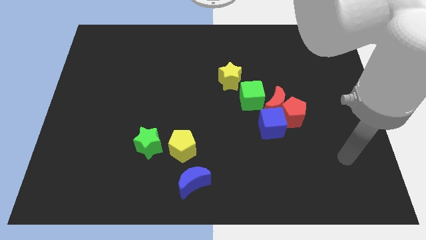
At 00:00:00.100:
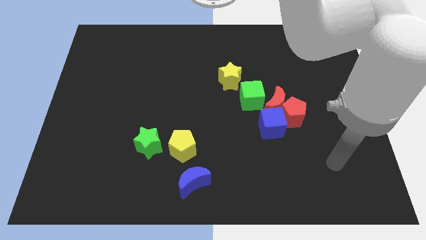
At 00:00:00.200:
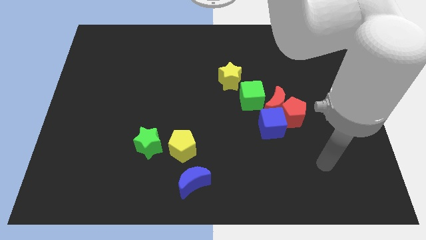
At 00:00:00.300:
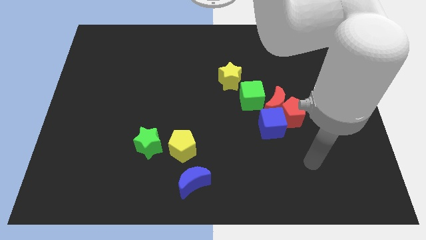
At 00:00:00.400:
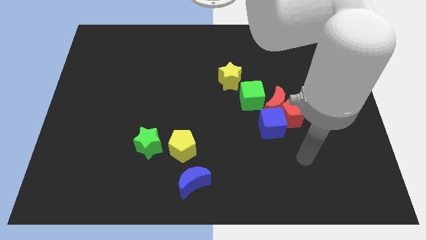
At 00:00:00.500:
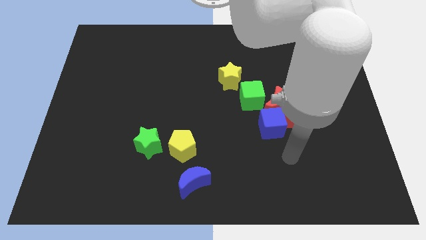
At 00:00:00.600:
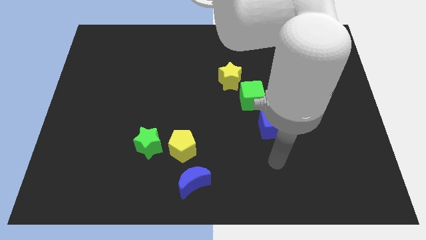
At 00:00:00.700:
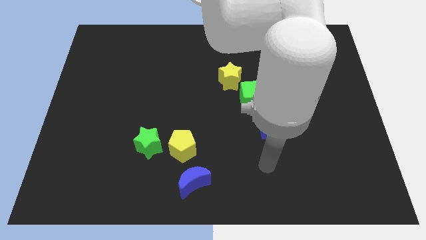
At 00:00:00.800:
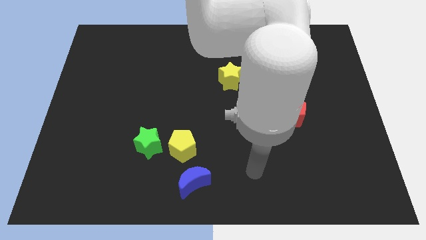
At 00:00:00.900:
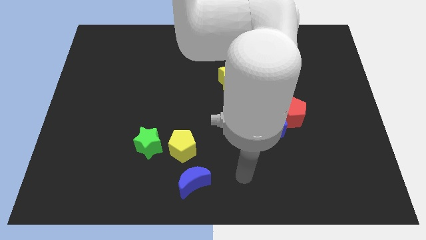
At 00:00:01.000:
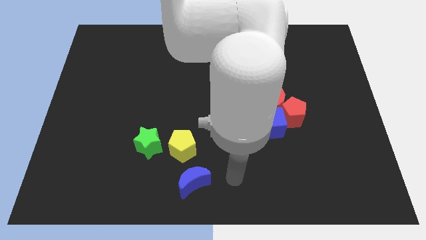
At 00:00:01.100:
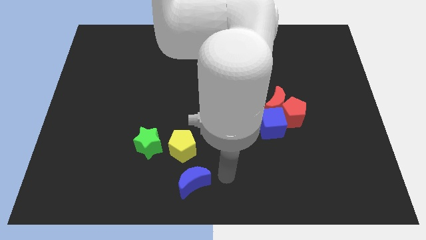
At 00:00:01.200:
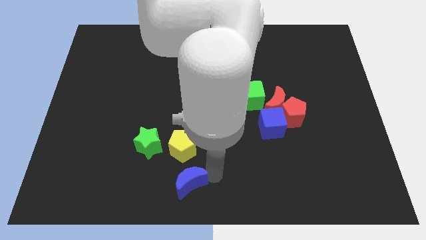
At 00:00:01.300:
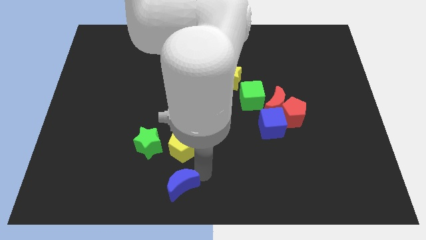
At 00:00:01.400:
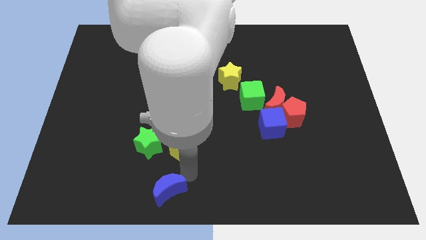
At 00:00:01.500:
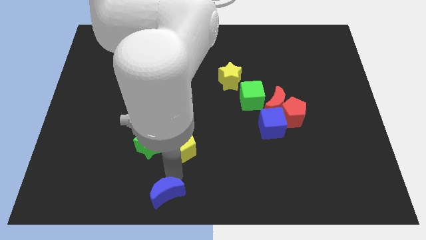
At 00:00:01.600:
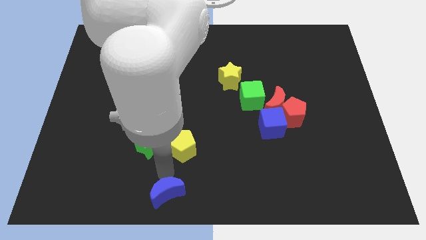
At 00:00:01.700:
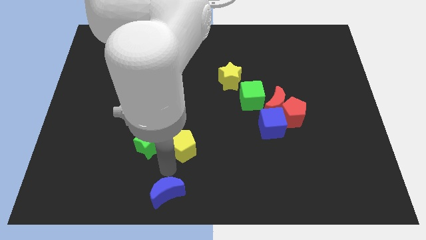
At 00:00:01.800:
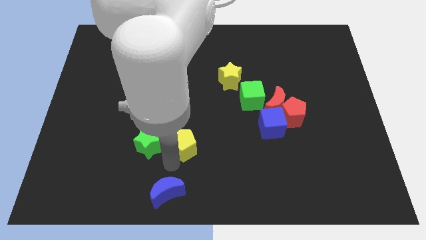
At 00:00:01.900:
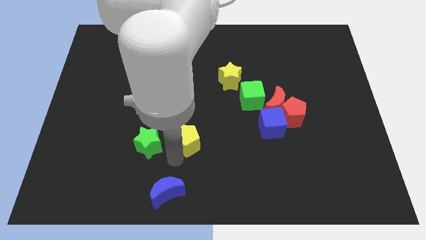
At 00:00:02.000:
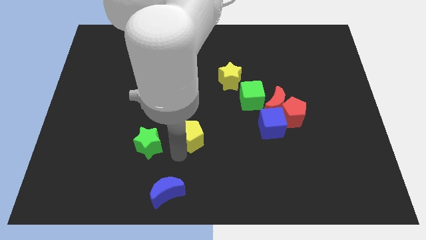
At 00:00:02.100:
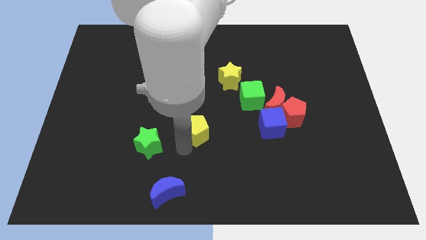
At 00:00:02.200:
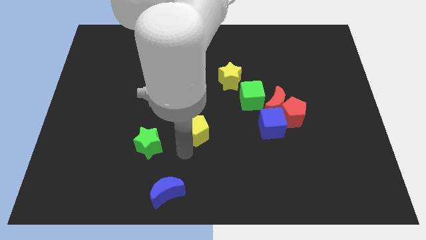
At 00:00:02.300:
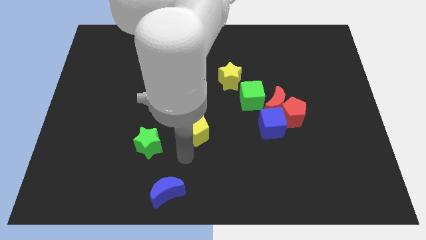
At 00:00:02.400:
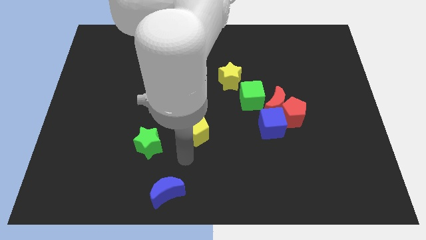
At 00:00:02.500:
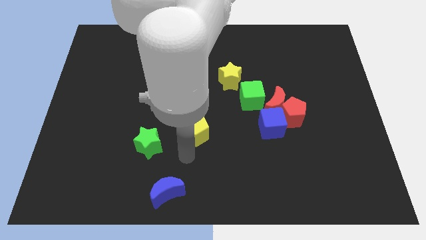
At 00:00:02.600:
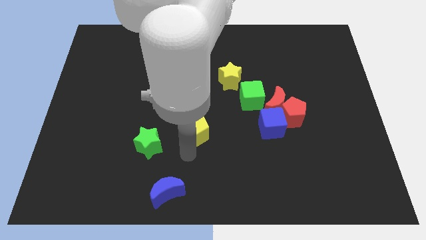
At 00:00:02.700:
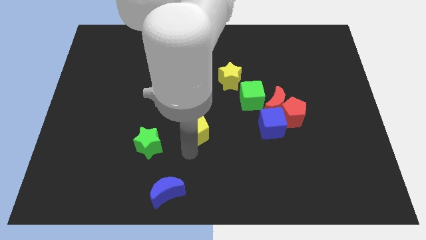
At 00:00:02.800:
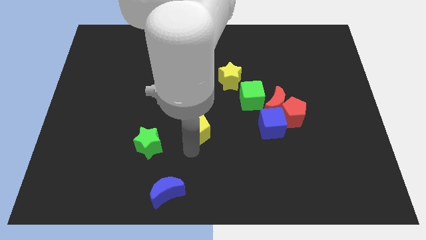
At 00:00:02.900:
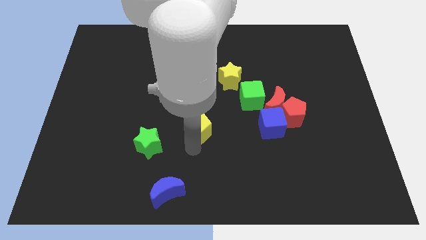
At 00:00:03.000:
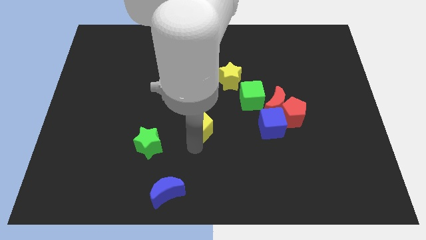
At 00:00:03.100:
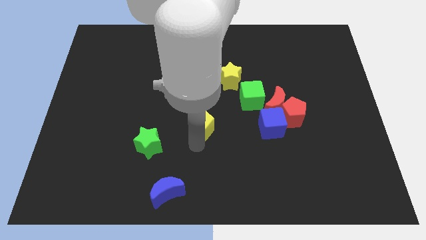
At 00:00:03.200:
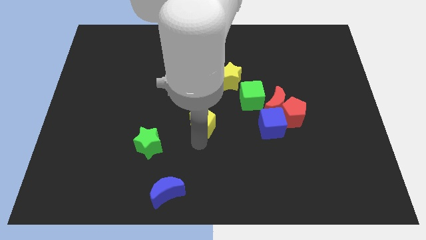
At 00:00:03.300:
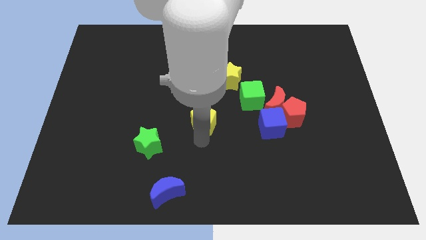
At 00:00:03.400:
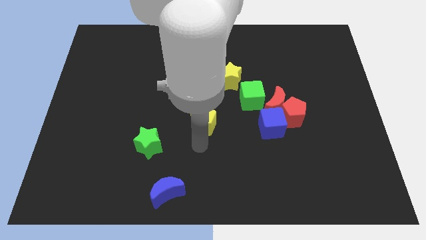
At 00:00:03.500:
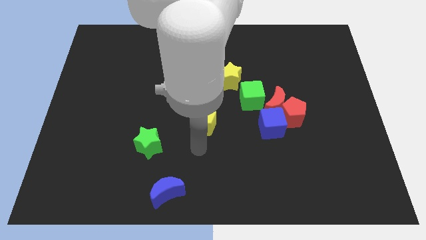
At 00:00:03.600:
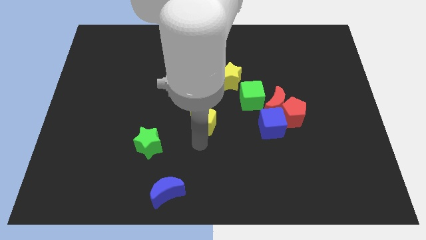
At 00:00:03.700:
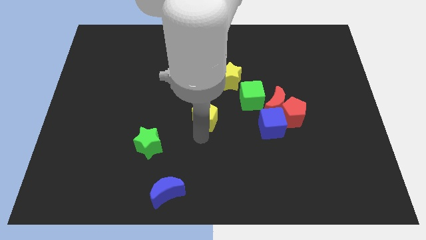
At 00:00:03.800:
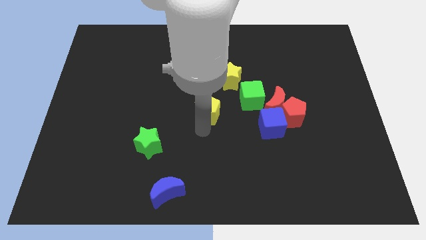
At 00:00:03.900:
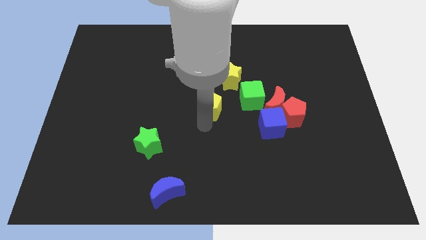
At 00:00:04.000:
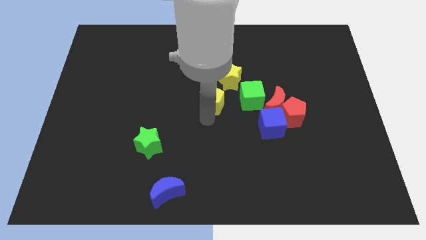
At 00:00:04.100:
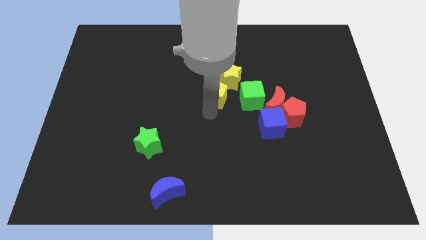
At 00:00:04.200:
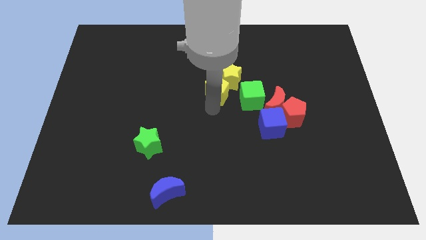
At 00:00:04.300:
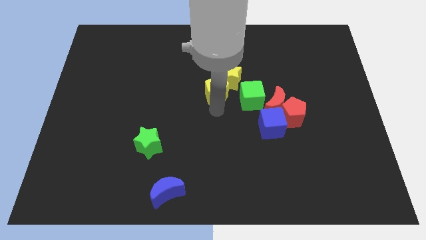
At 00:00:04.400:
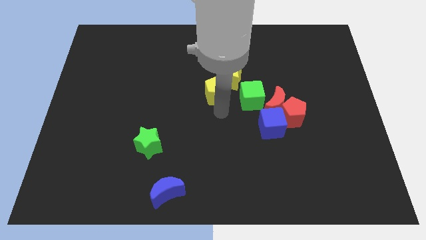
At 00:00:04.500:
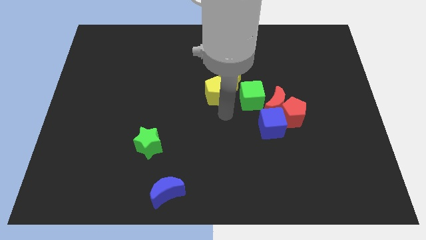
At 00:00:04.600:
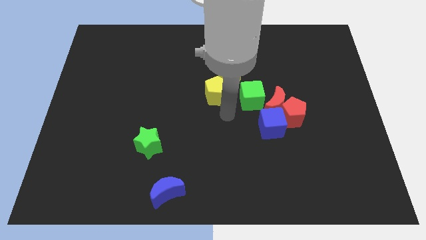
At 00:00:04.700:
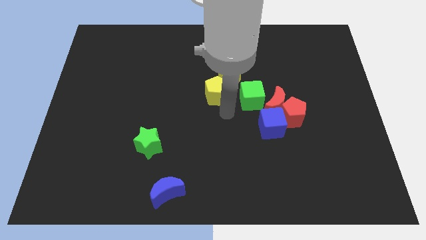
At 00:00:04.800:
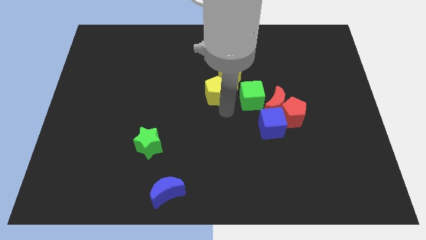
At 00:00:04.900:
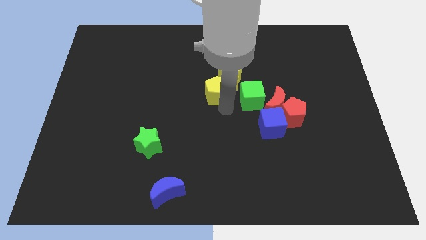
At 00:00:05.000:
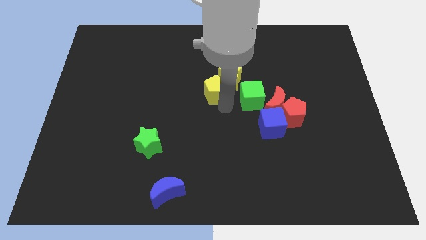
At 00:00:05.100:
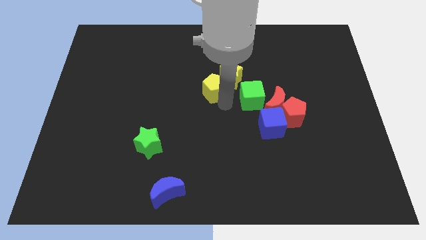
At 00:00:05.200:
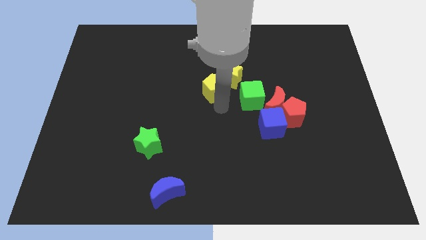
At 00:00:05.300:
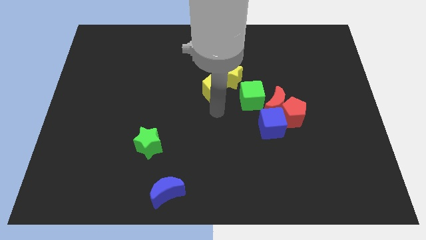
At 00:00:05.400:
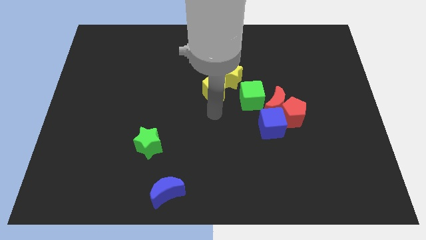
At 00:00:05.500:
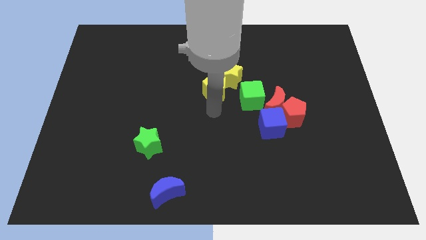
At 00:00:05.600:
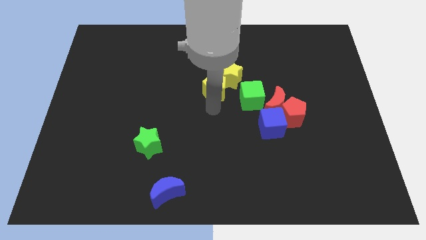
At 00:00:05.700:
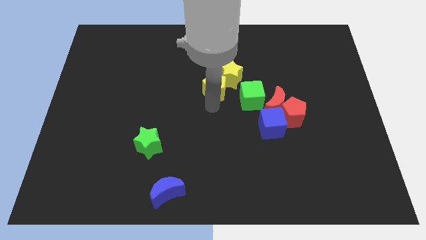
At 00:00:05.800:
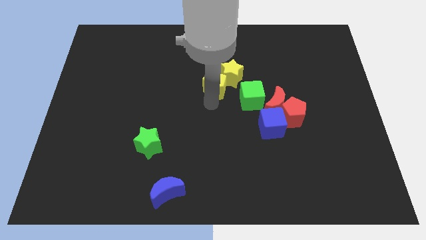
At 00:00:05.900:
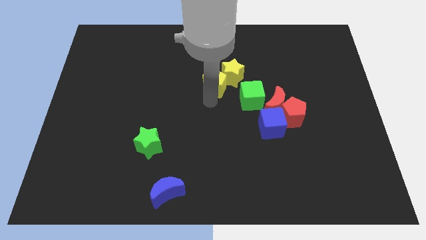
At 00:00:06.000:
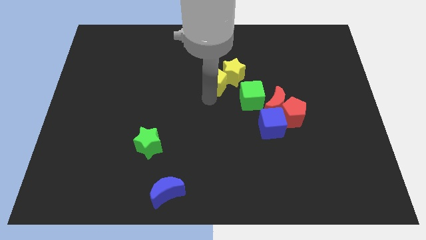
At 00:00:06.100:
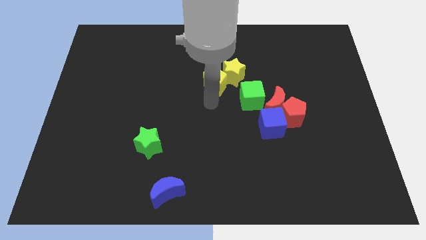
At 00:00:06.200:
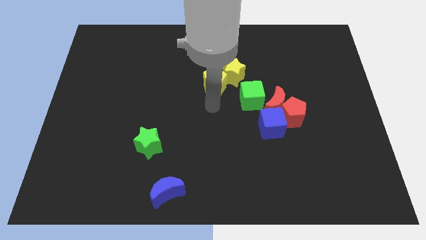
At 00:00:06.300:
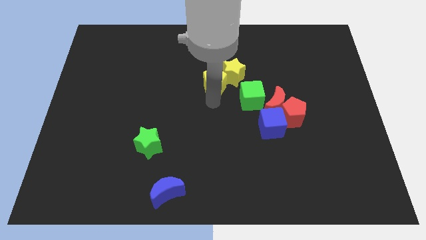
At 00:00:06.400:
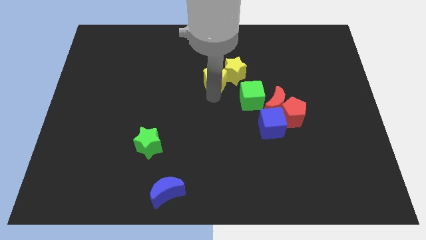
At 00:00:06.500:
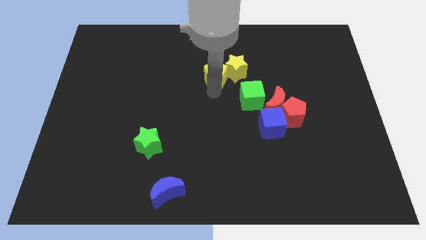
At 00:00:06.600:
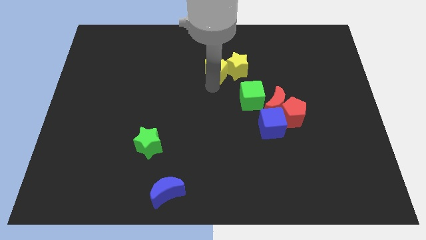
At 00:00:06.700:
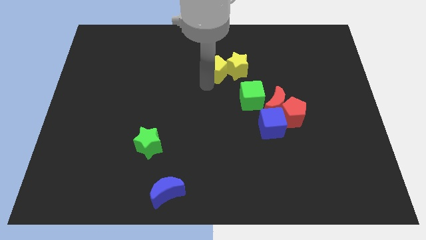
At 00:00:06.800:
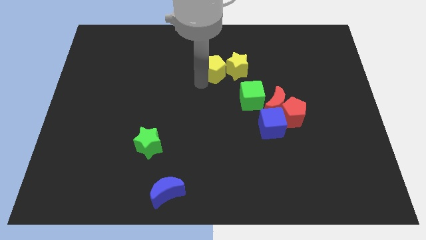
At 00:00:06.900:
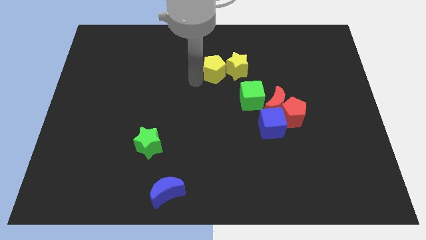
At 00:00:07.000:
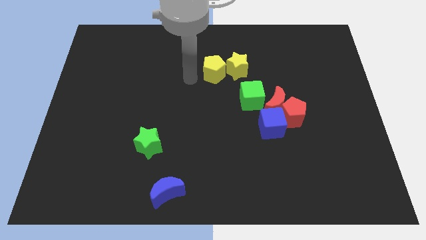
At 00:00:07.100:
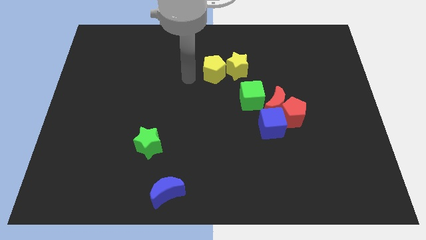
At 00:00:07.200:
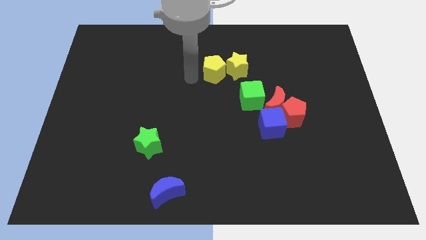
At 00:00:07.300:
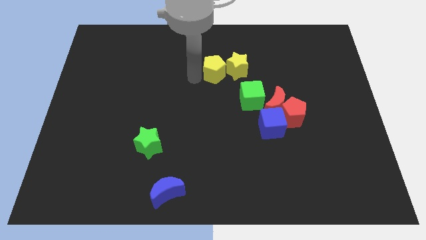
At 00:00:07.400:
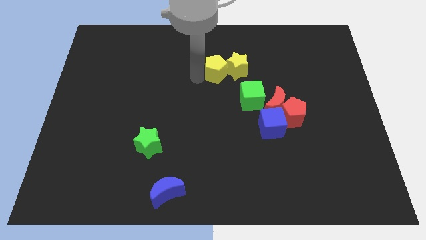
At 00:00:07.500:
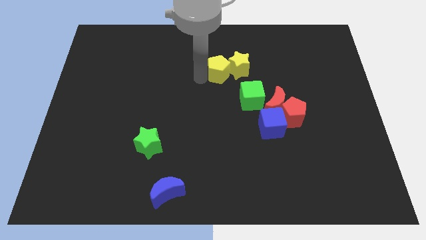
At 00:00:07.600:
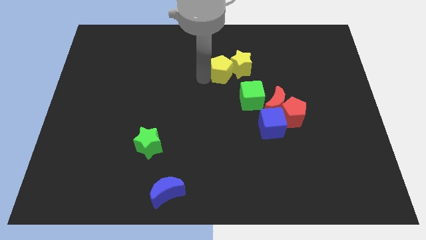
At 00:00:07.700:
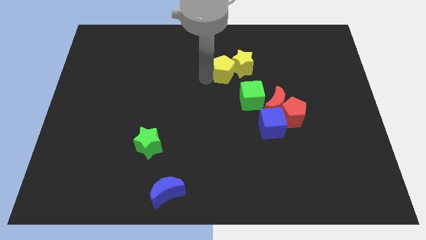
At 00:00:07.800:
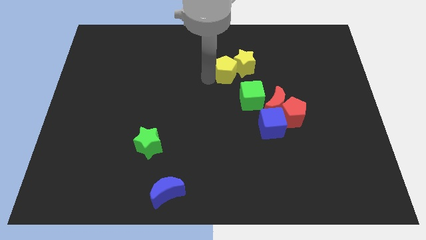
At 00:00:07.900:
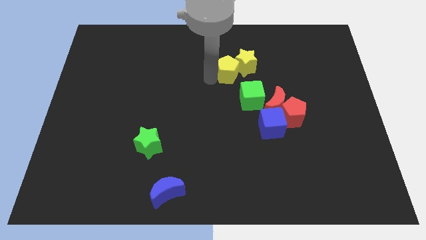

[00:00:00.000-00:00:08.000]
slide the yellow pentagon upwards and right

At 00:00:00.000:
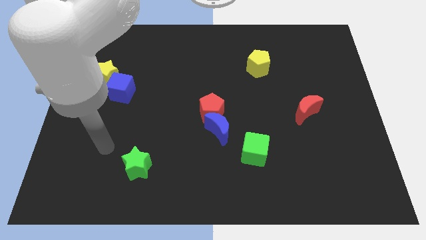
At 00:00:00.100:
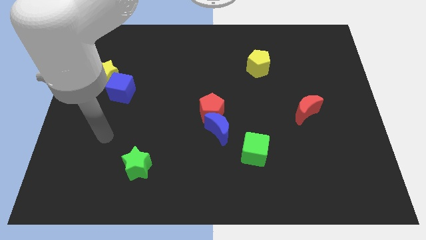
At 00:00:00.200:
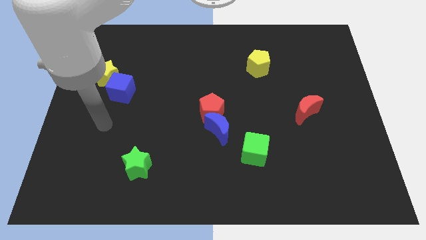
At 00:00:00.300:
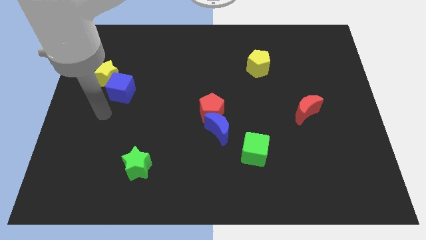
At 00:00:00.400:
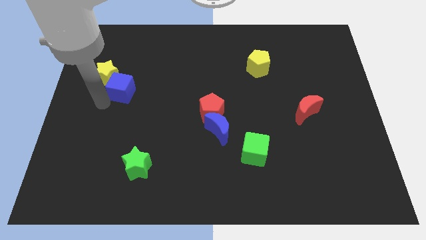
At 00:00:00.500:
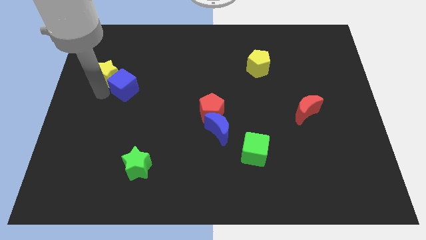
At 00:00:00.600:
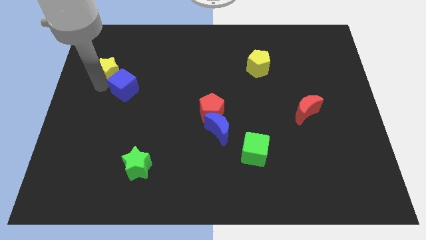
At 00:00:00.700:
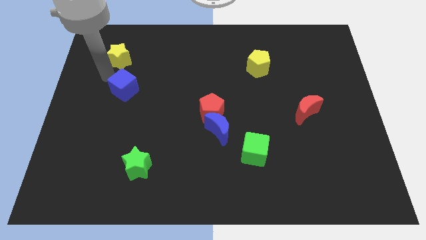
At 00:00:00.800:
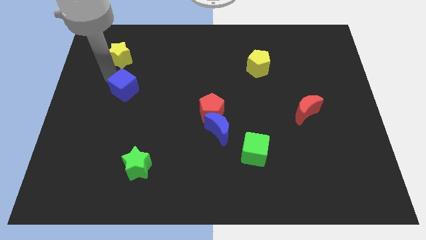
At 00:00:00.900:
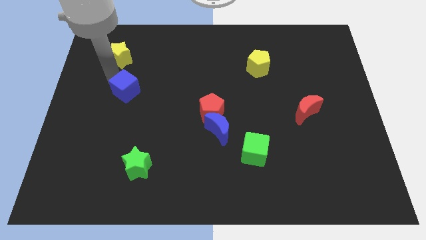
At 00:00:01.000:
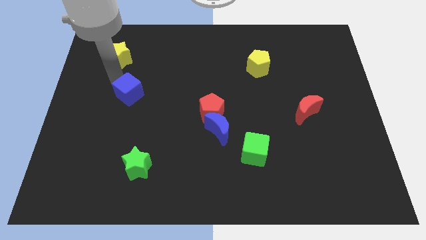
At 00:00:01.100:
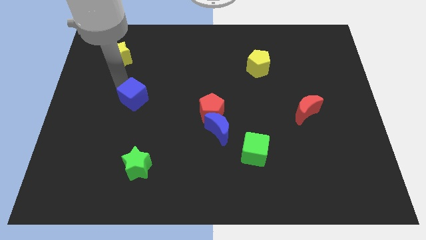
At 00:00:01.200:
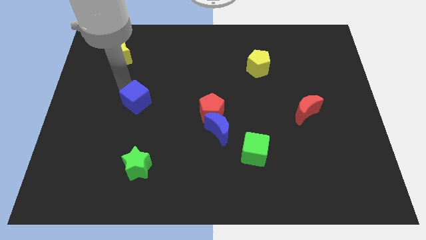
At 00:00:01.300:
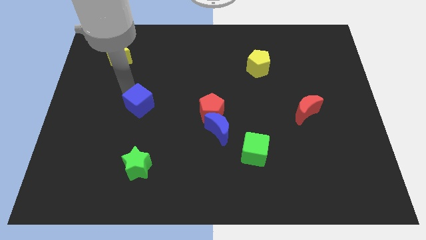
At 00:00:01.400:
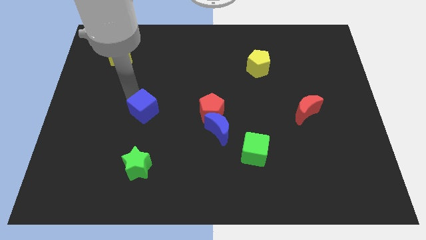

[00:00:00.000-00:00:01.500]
slightly slide the blue cube down and then right
